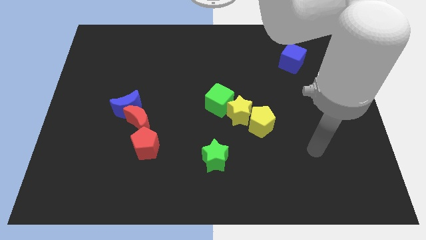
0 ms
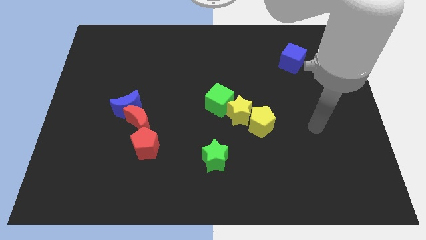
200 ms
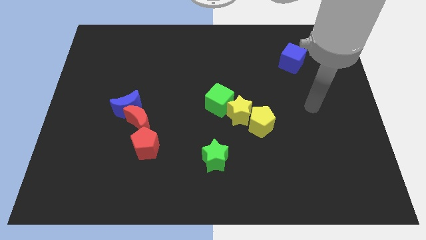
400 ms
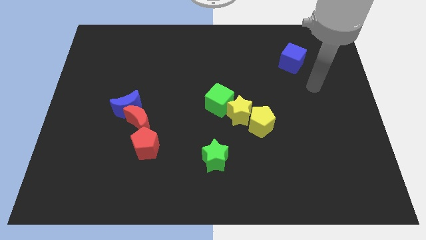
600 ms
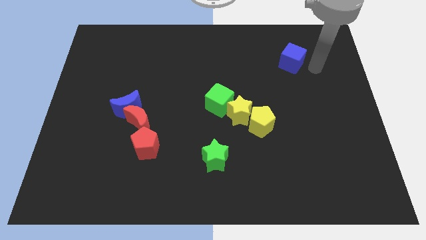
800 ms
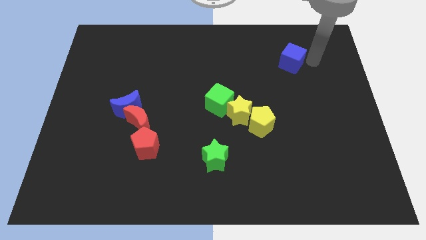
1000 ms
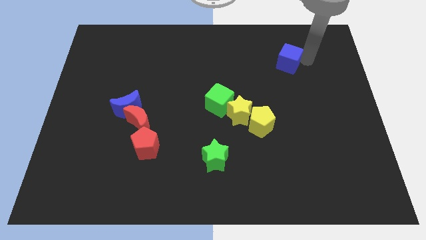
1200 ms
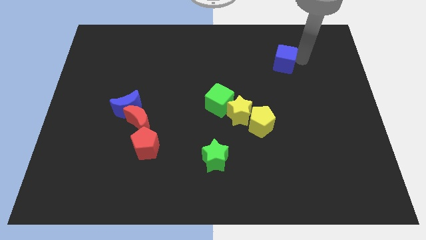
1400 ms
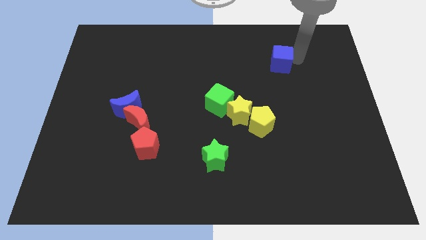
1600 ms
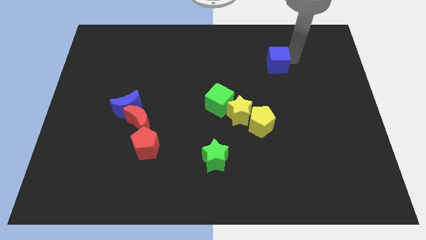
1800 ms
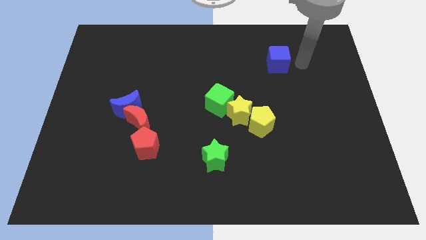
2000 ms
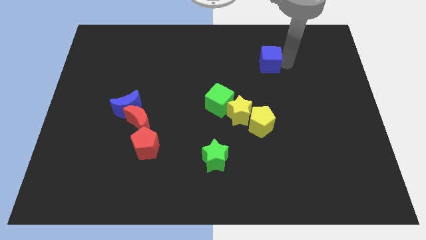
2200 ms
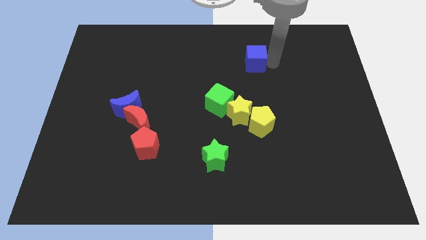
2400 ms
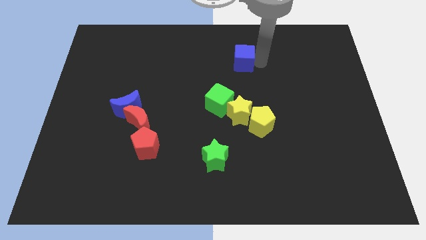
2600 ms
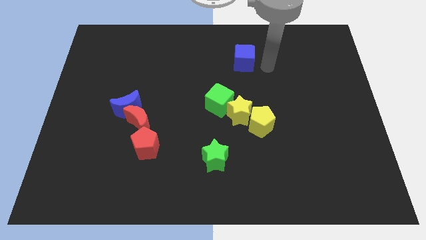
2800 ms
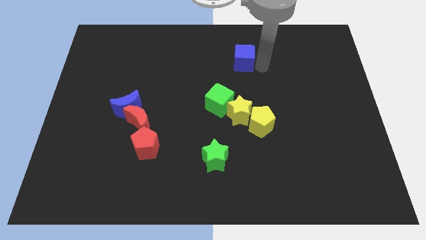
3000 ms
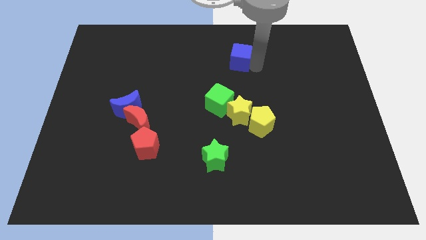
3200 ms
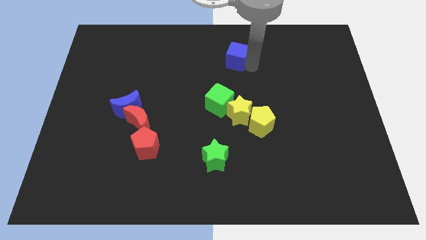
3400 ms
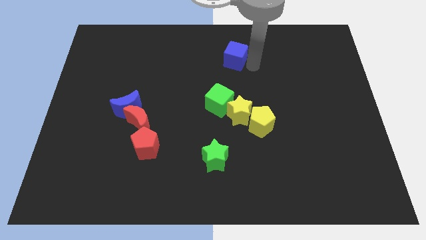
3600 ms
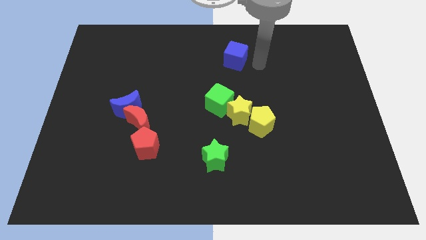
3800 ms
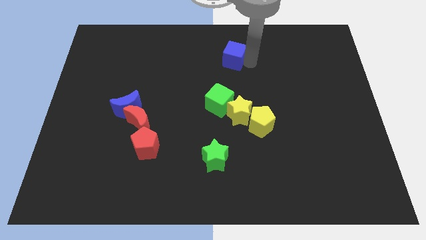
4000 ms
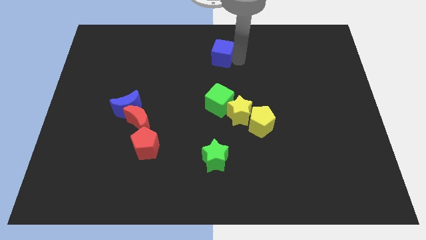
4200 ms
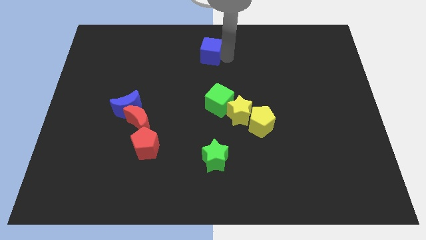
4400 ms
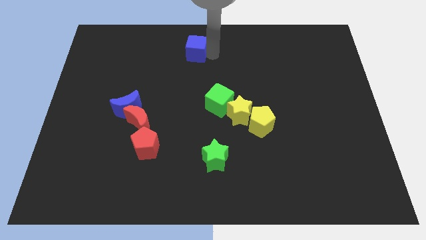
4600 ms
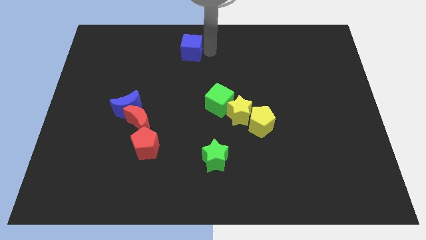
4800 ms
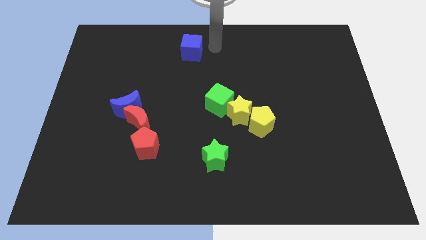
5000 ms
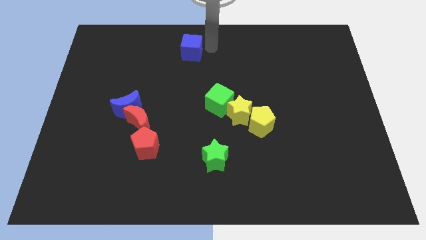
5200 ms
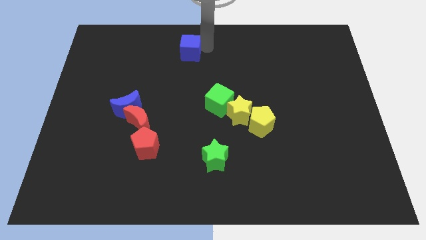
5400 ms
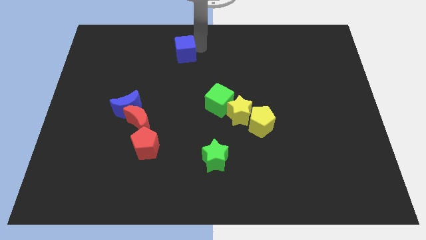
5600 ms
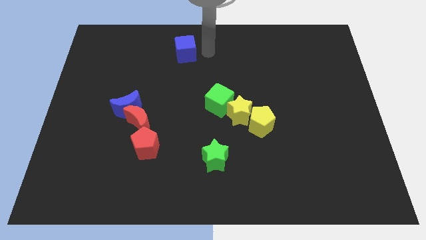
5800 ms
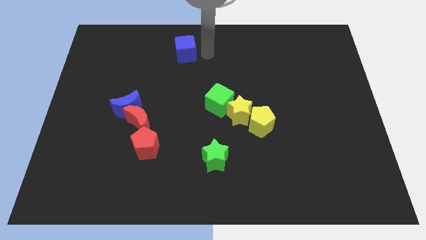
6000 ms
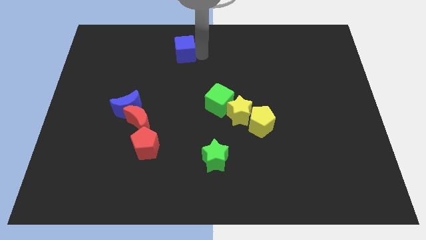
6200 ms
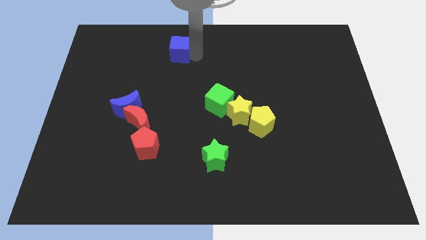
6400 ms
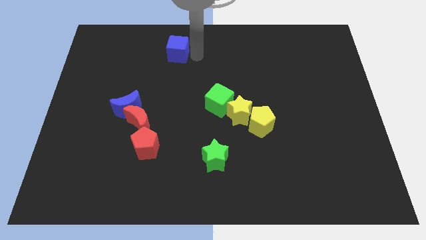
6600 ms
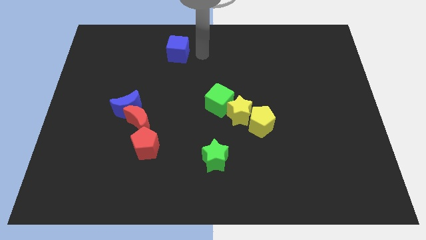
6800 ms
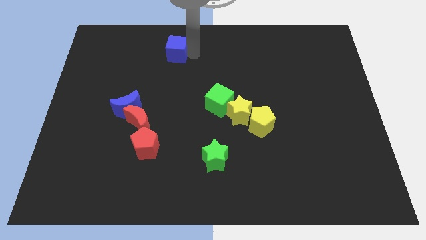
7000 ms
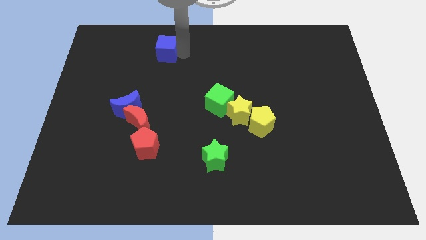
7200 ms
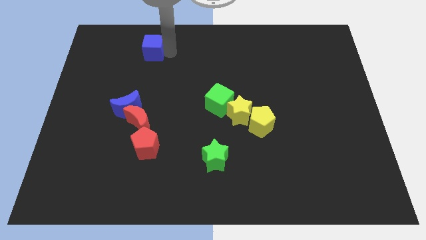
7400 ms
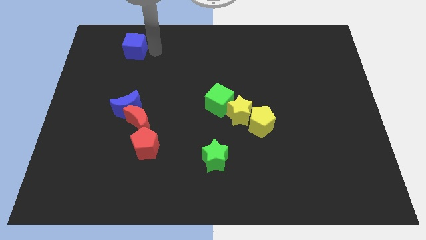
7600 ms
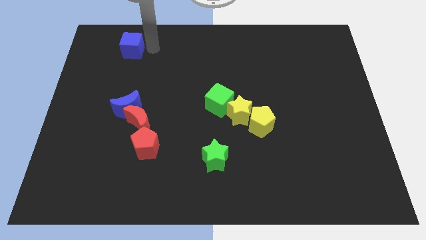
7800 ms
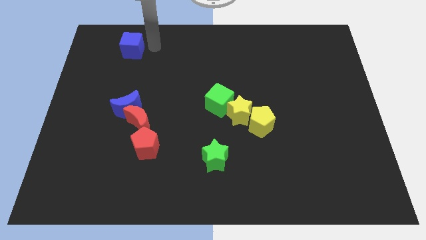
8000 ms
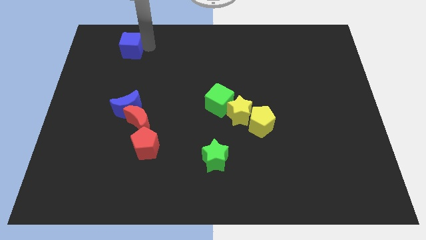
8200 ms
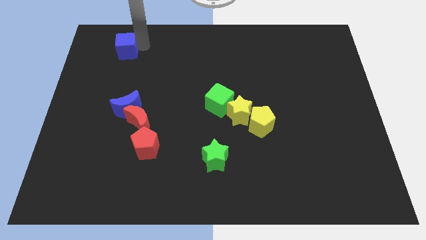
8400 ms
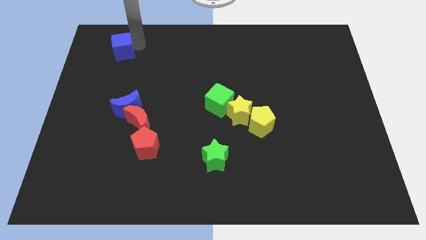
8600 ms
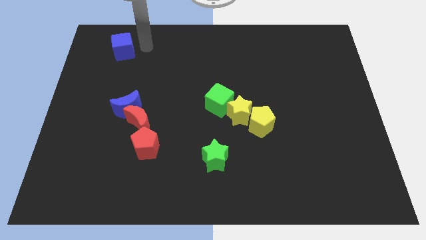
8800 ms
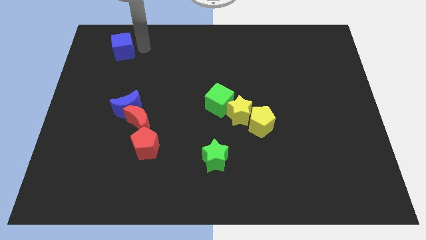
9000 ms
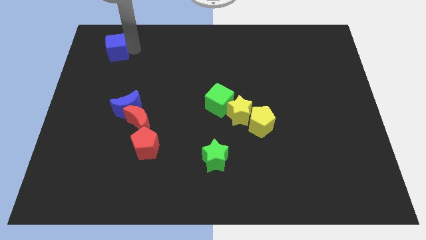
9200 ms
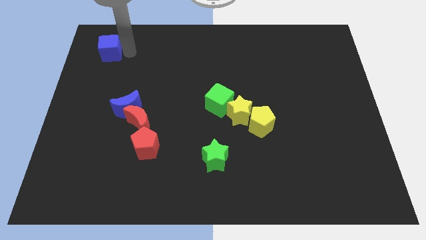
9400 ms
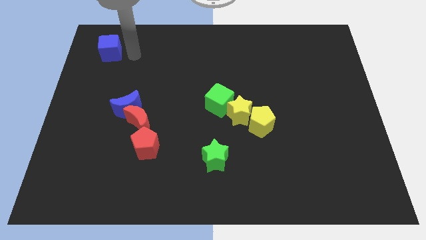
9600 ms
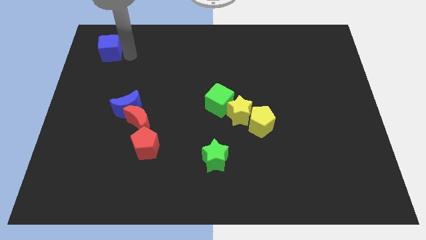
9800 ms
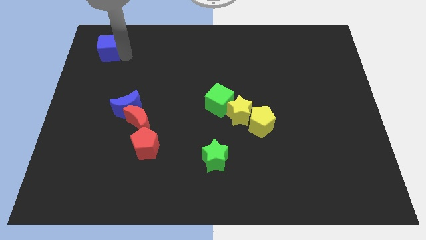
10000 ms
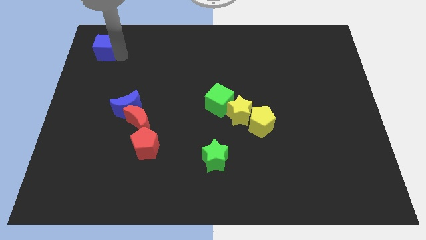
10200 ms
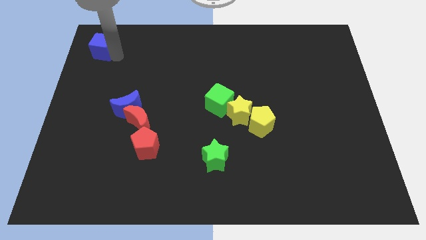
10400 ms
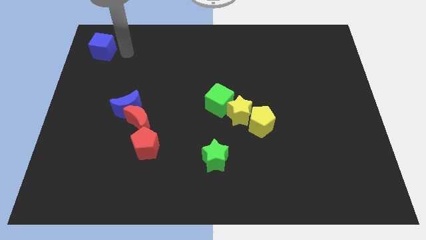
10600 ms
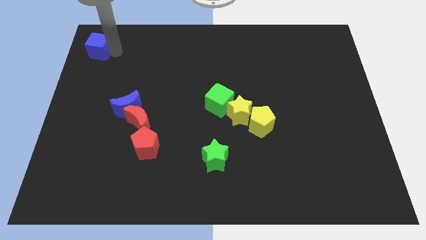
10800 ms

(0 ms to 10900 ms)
put the blue cube to the top left corner

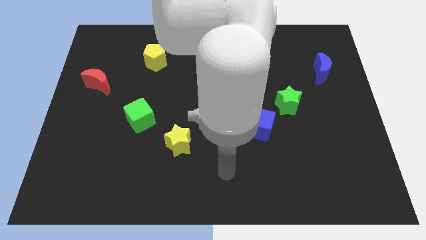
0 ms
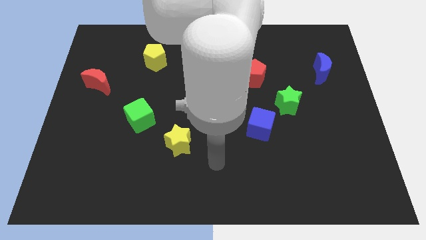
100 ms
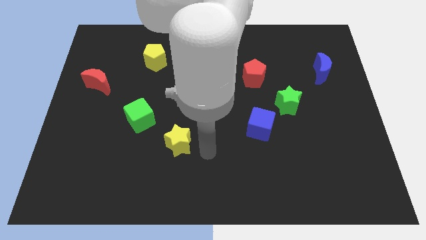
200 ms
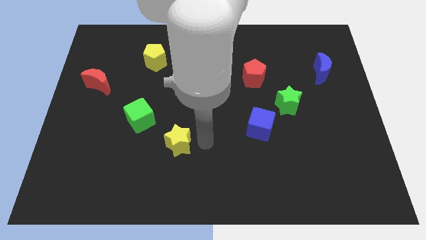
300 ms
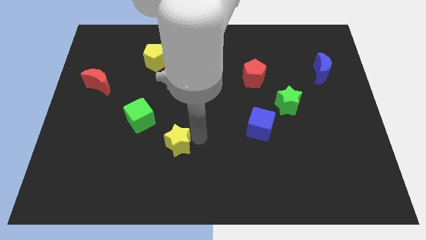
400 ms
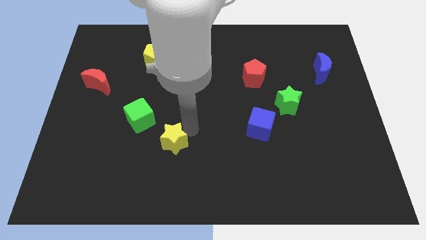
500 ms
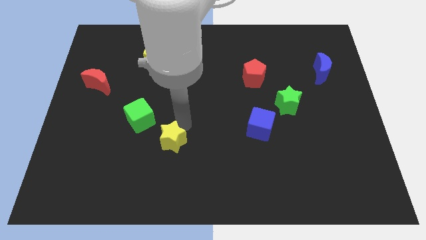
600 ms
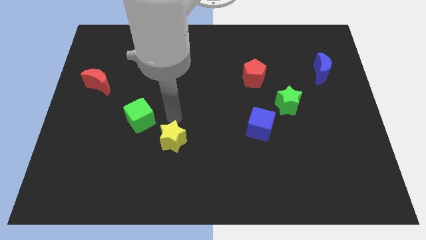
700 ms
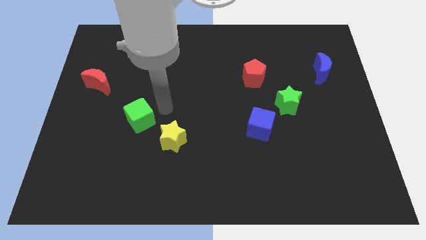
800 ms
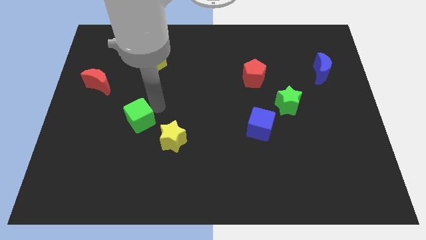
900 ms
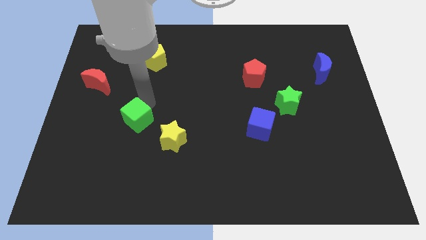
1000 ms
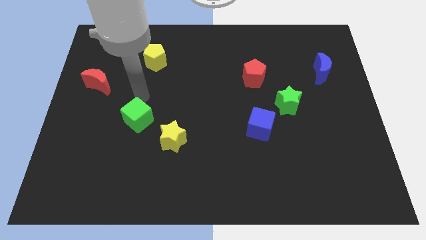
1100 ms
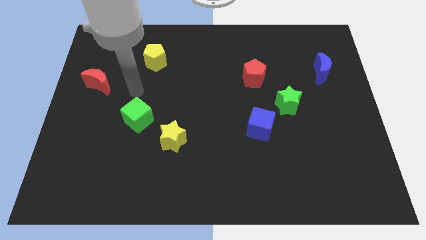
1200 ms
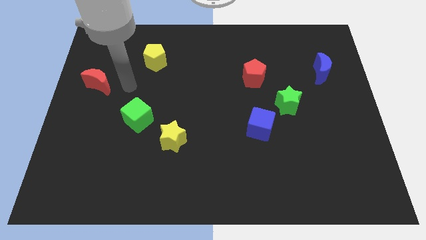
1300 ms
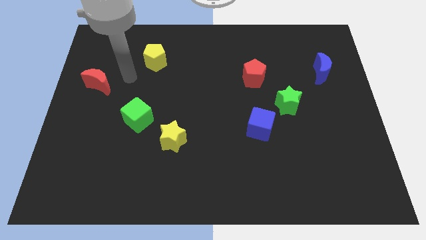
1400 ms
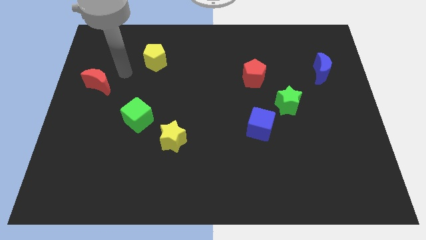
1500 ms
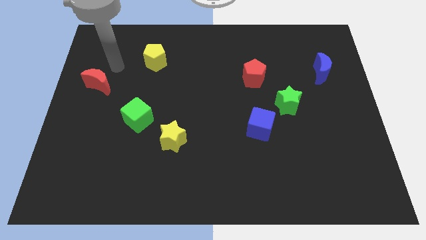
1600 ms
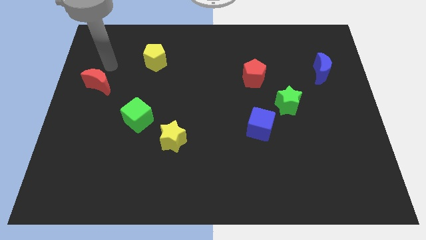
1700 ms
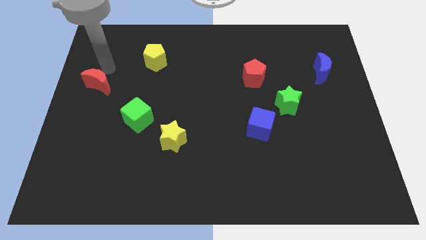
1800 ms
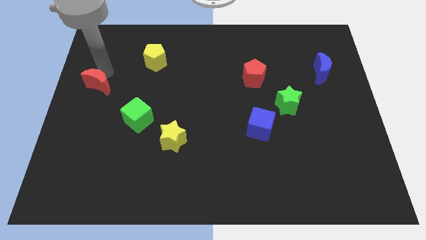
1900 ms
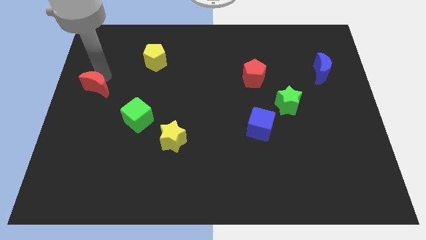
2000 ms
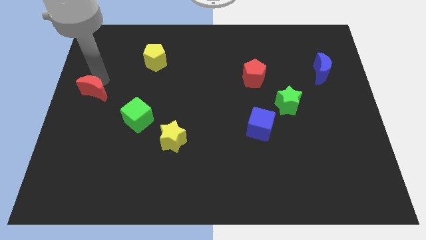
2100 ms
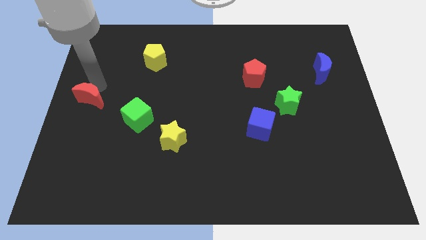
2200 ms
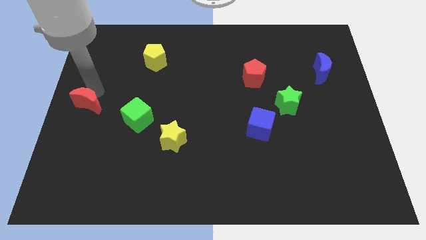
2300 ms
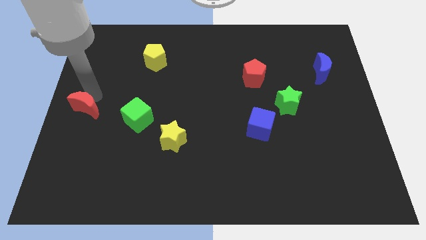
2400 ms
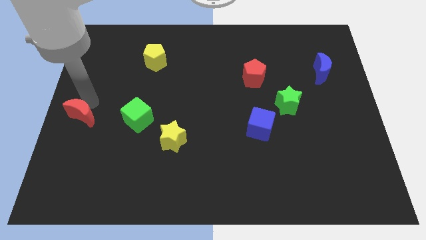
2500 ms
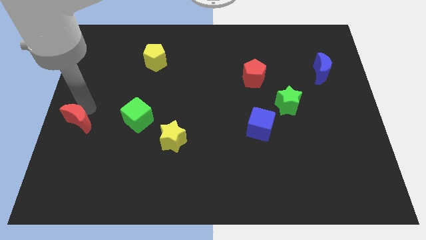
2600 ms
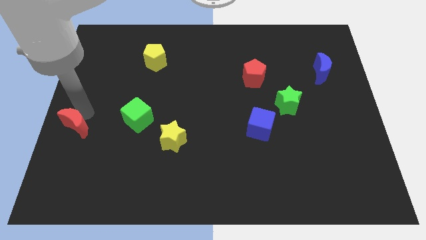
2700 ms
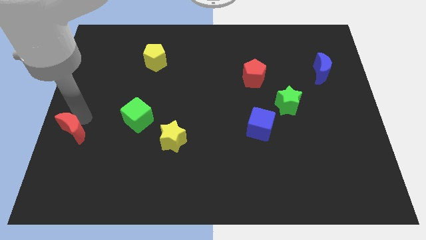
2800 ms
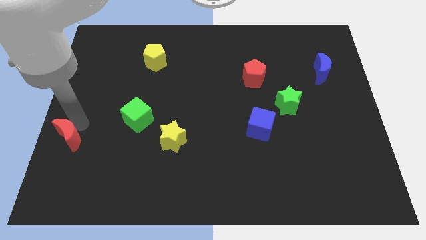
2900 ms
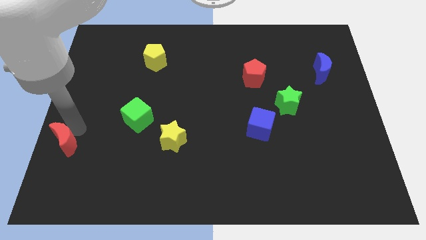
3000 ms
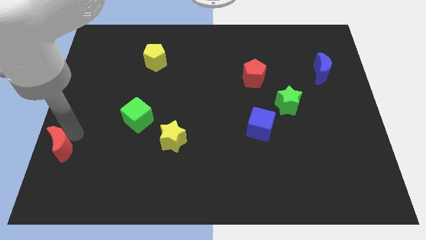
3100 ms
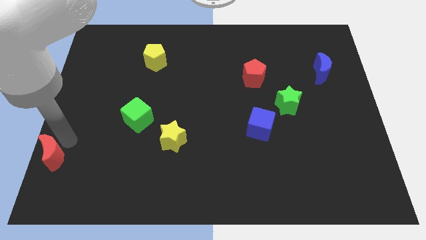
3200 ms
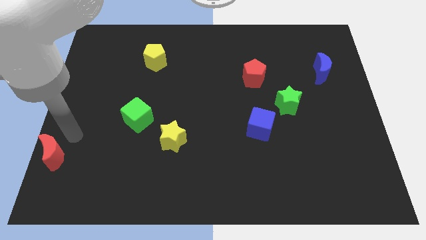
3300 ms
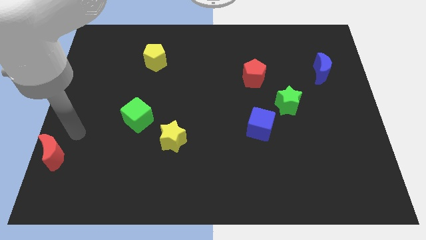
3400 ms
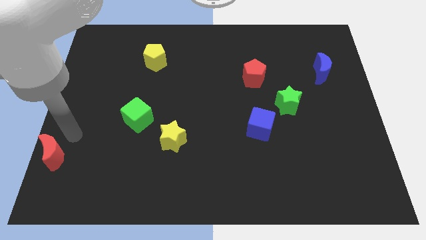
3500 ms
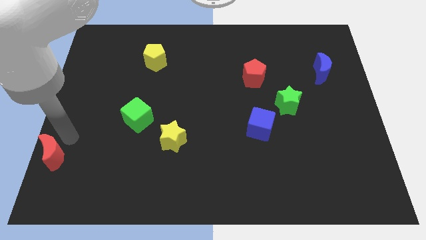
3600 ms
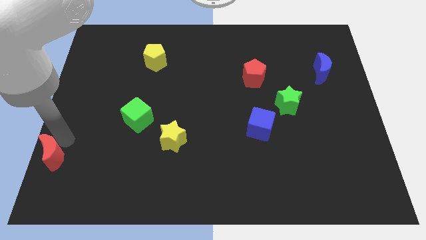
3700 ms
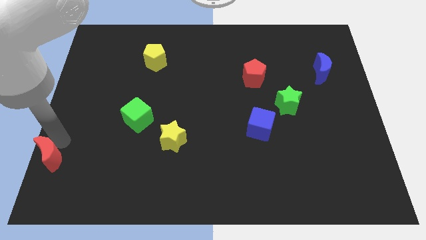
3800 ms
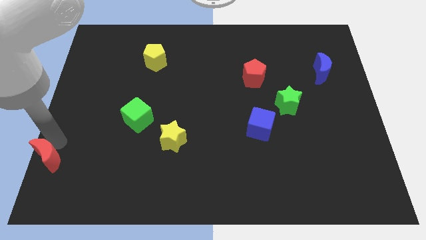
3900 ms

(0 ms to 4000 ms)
move the red moon to the bottom left corner
